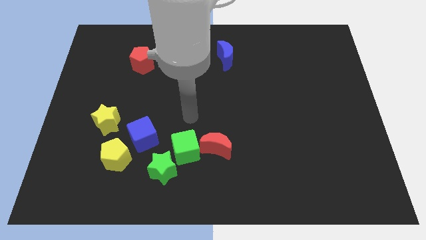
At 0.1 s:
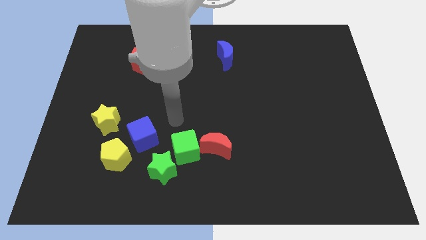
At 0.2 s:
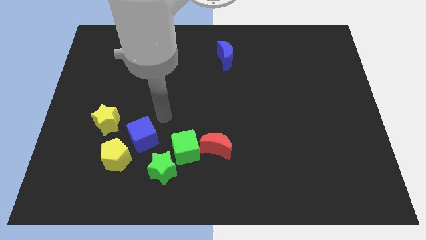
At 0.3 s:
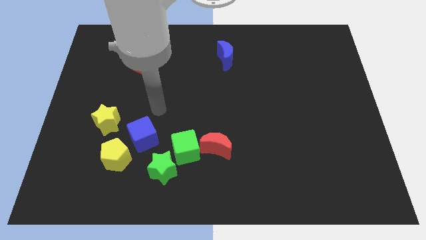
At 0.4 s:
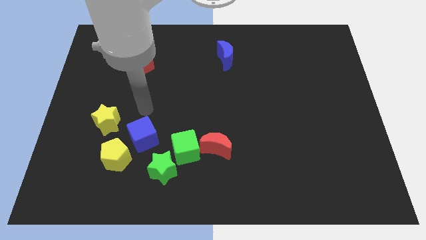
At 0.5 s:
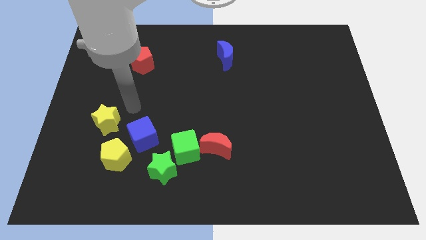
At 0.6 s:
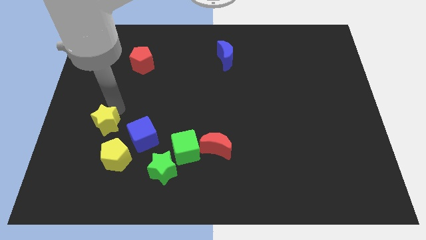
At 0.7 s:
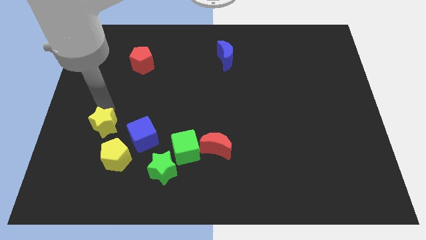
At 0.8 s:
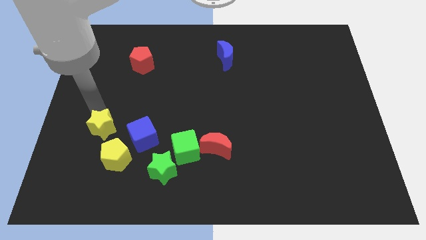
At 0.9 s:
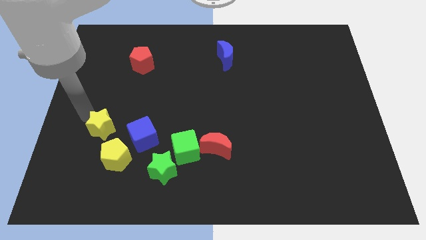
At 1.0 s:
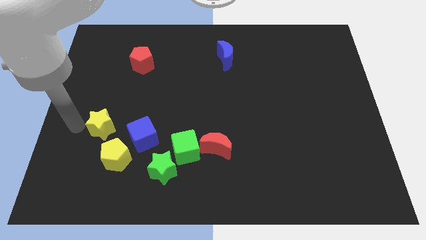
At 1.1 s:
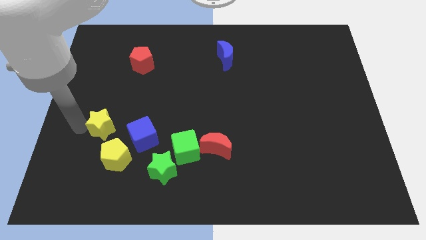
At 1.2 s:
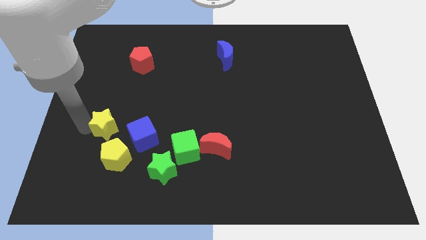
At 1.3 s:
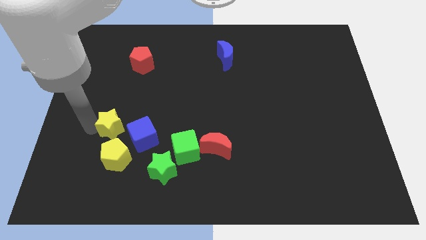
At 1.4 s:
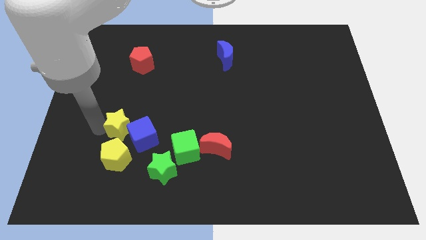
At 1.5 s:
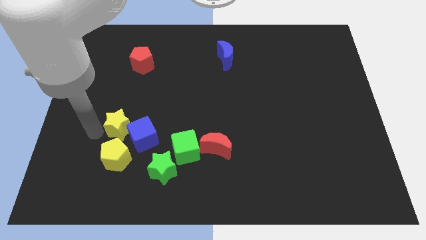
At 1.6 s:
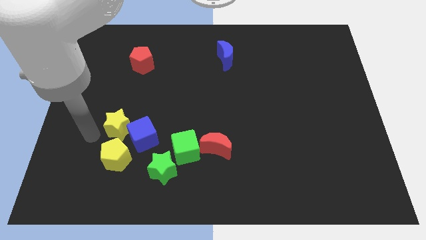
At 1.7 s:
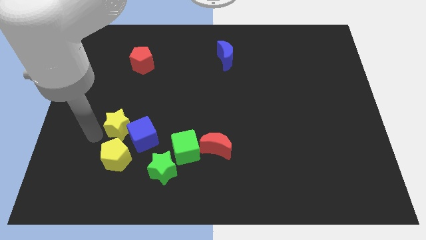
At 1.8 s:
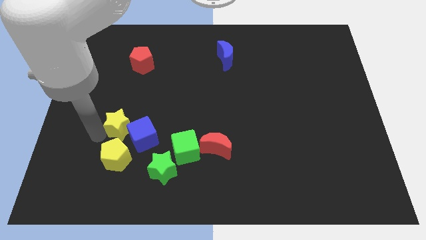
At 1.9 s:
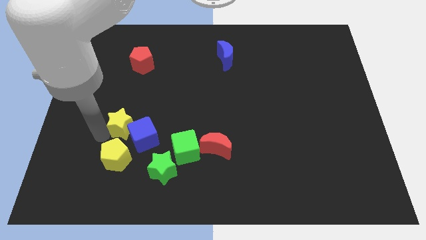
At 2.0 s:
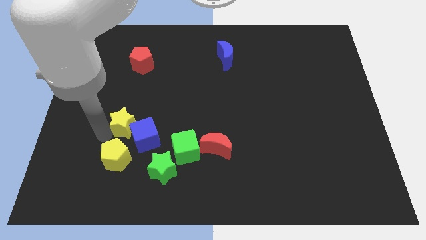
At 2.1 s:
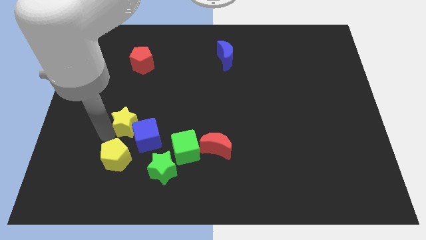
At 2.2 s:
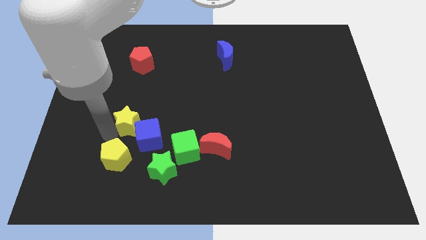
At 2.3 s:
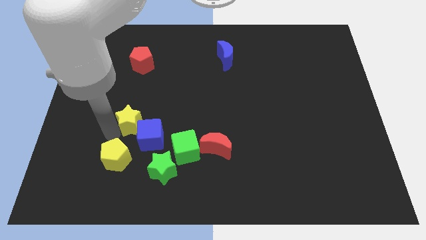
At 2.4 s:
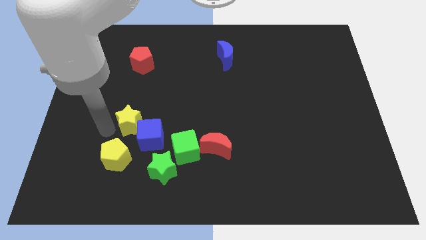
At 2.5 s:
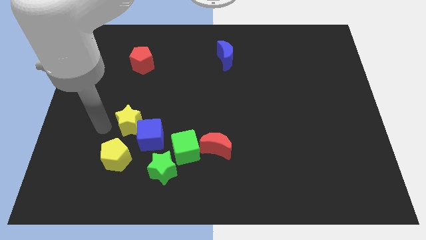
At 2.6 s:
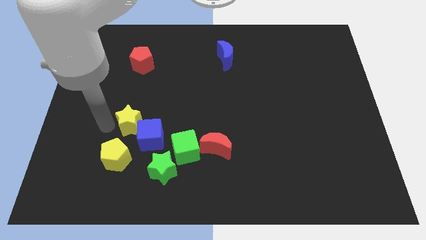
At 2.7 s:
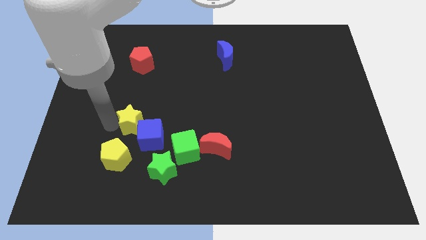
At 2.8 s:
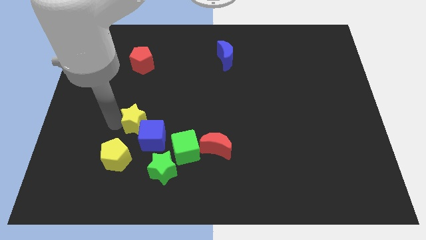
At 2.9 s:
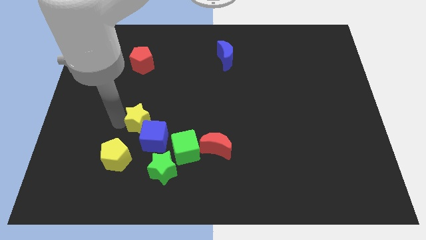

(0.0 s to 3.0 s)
slide the yellow star somewhat to the right

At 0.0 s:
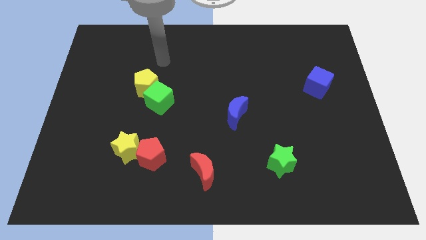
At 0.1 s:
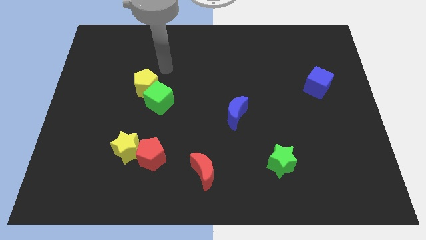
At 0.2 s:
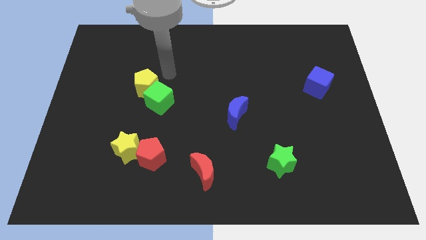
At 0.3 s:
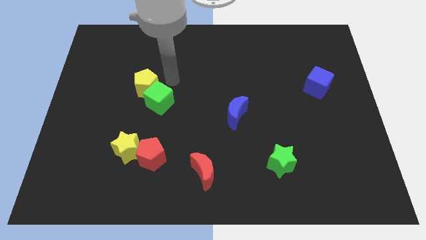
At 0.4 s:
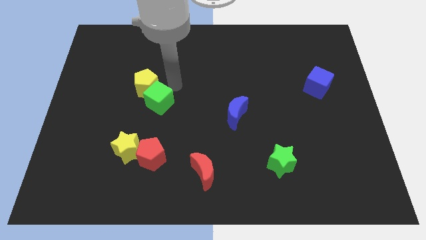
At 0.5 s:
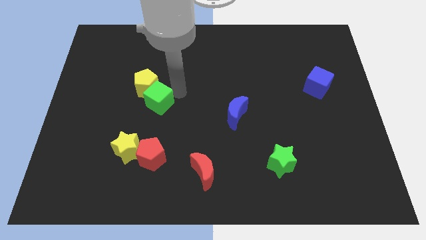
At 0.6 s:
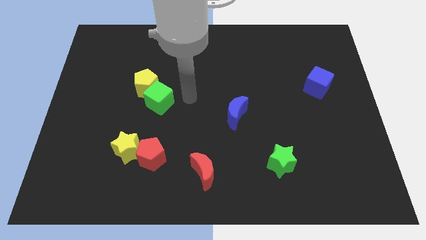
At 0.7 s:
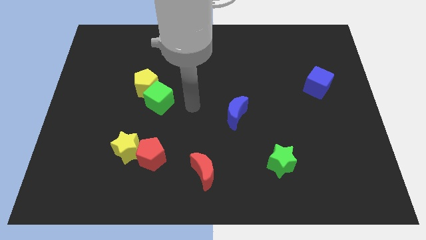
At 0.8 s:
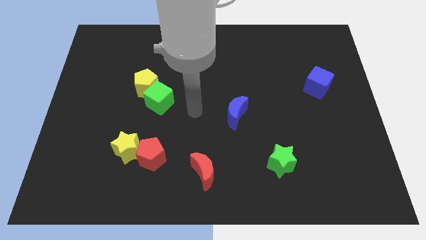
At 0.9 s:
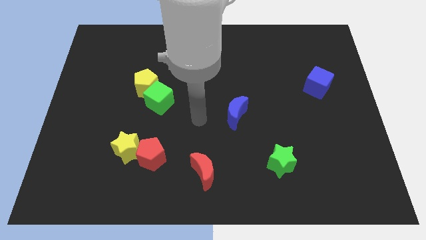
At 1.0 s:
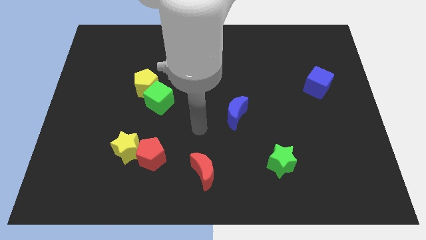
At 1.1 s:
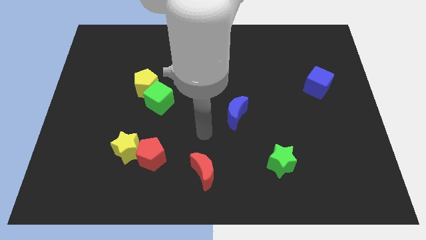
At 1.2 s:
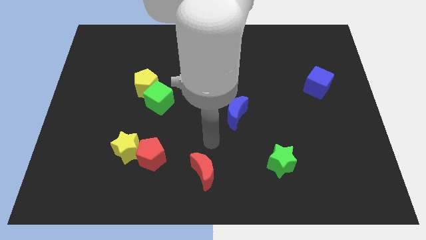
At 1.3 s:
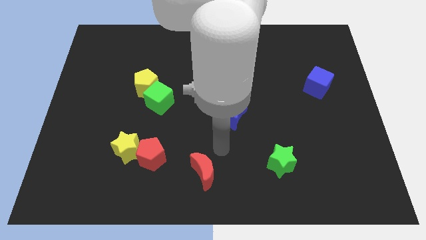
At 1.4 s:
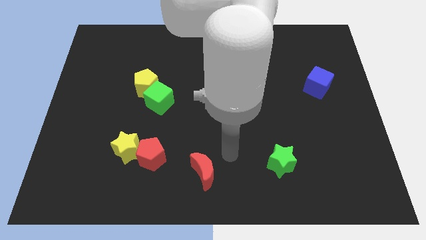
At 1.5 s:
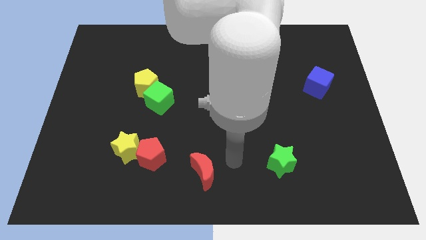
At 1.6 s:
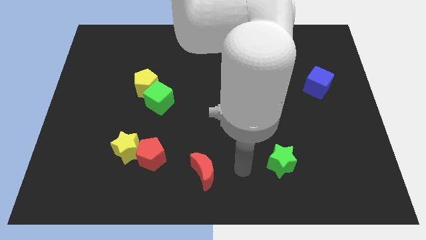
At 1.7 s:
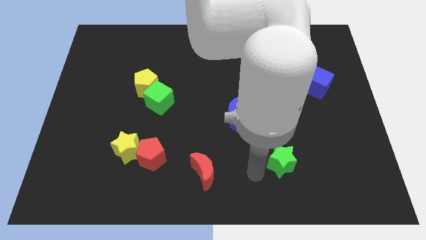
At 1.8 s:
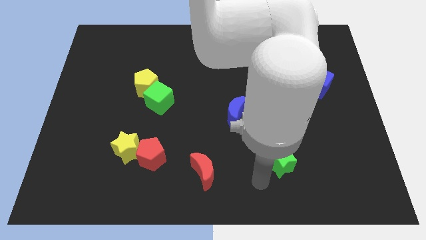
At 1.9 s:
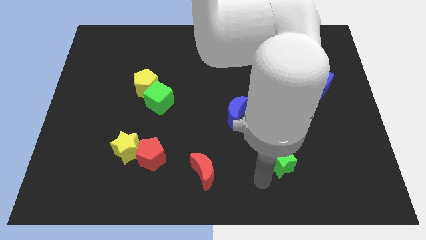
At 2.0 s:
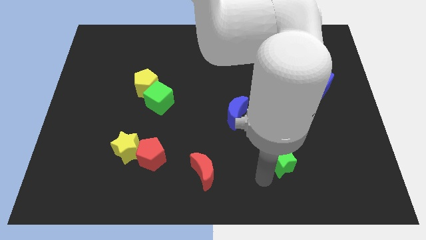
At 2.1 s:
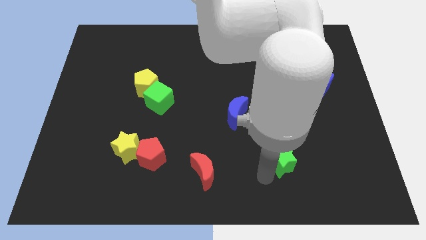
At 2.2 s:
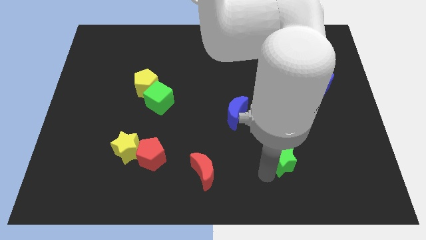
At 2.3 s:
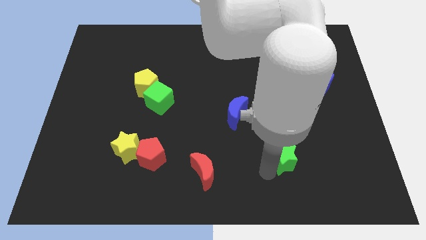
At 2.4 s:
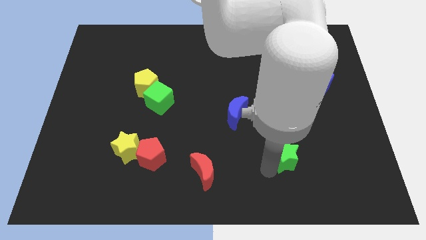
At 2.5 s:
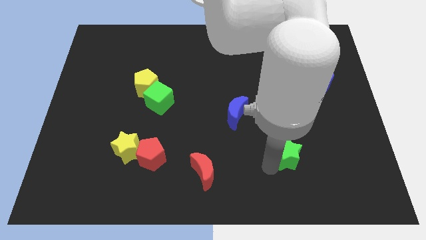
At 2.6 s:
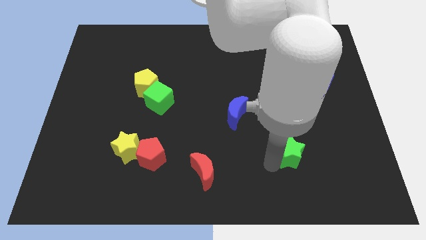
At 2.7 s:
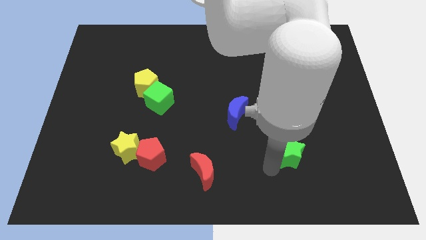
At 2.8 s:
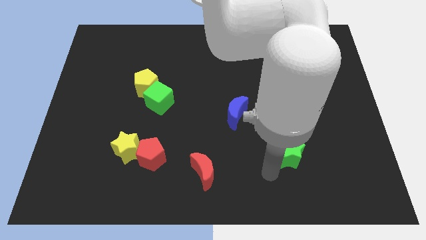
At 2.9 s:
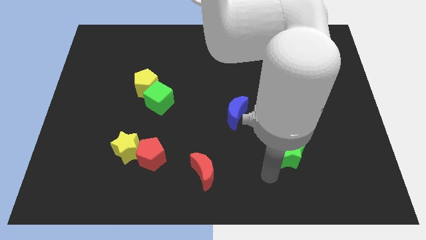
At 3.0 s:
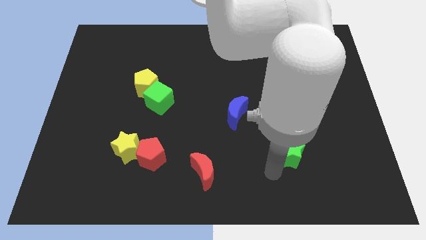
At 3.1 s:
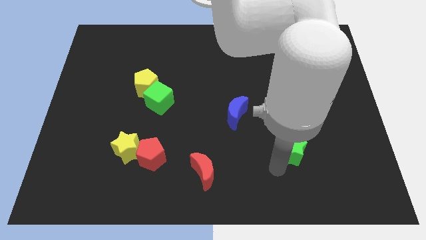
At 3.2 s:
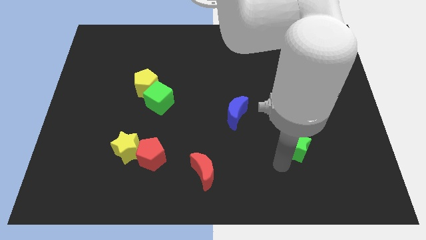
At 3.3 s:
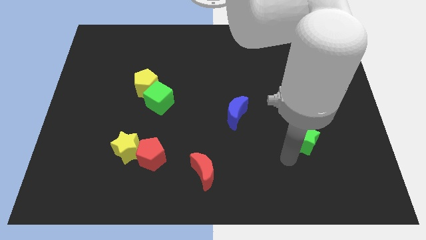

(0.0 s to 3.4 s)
move the green star slightly up and to the right

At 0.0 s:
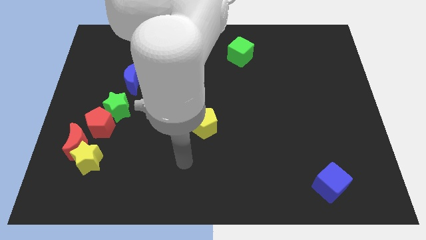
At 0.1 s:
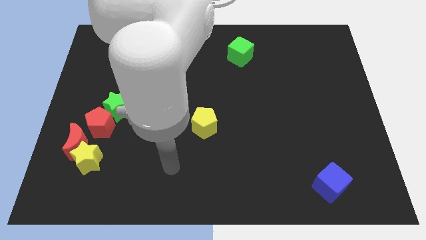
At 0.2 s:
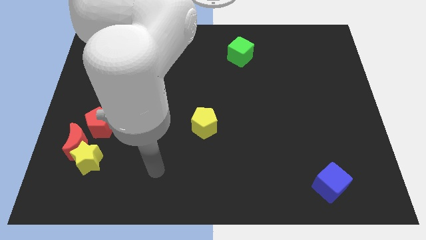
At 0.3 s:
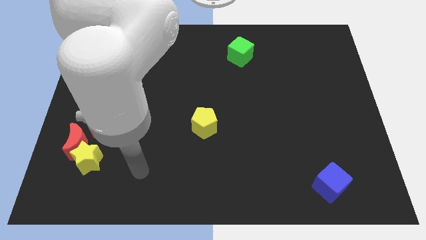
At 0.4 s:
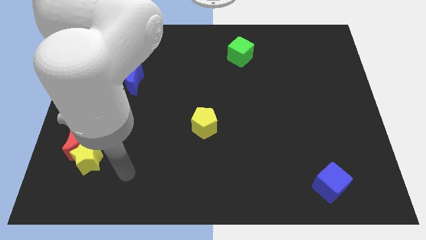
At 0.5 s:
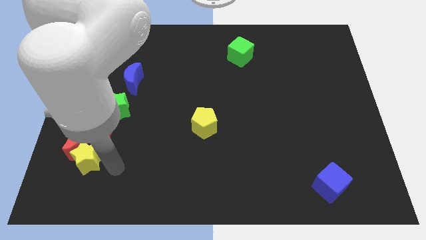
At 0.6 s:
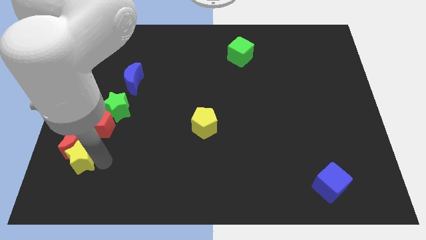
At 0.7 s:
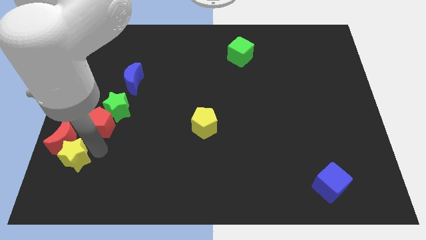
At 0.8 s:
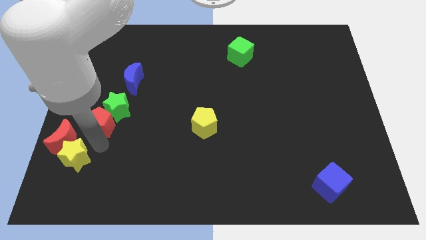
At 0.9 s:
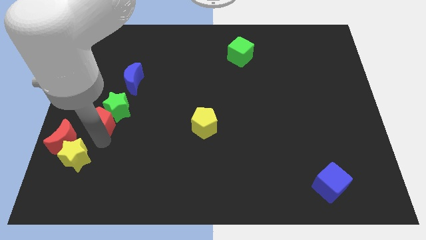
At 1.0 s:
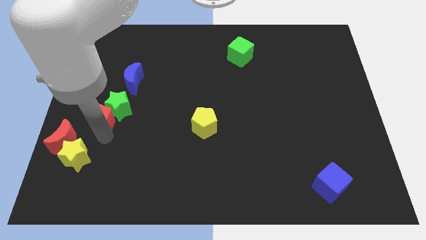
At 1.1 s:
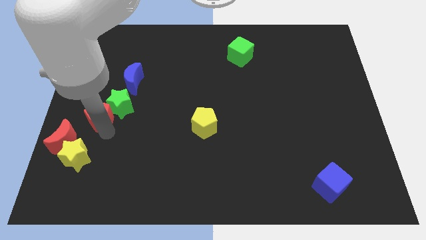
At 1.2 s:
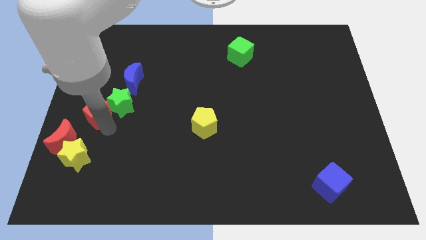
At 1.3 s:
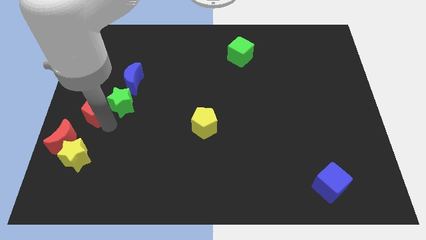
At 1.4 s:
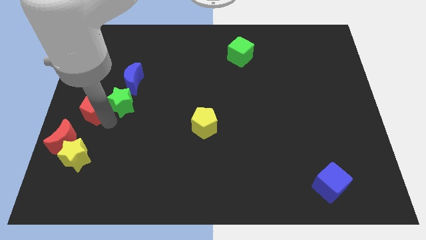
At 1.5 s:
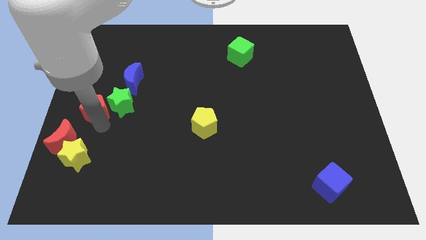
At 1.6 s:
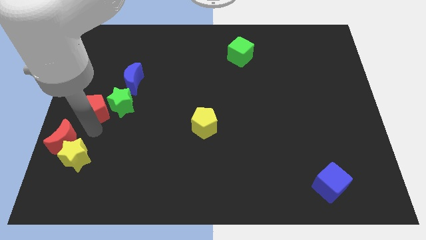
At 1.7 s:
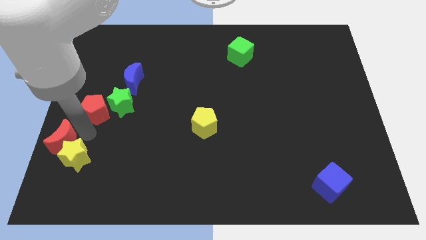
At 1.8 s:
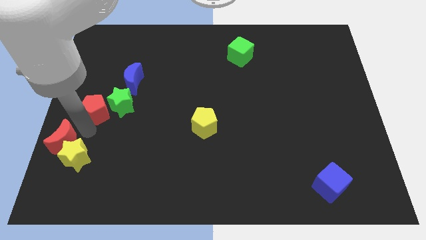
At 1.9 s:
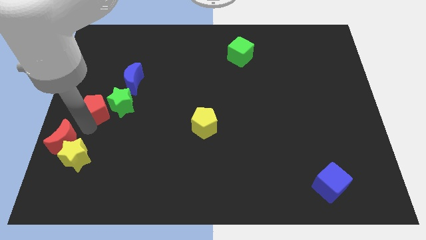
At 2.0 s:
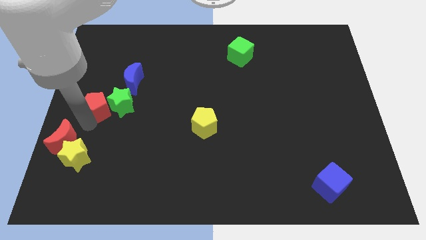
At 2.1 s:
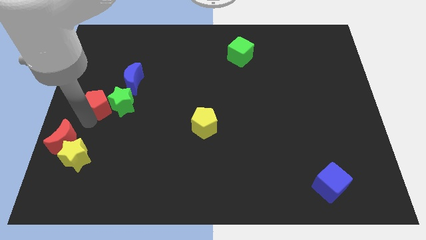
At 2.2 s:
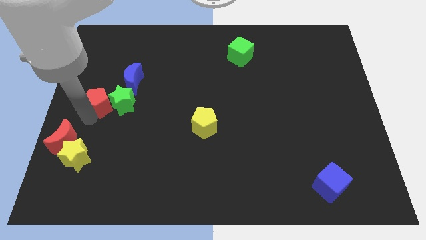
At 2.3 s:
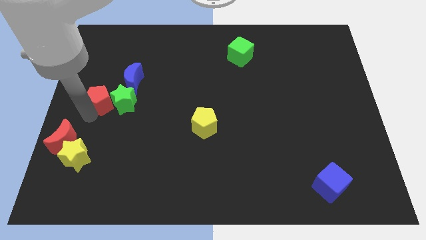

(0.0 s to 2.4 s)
push the red pentagon up somewhat
